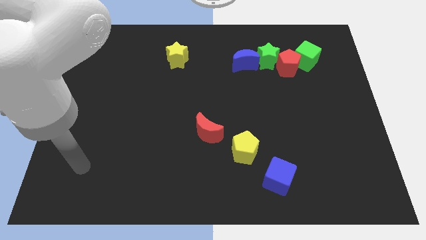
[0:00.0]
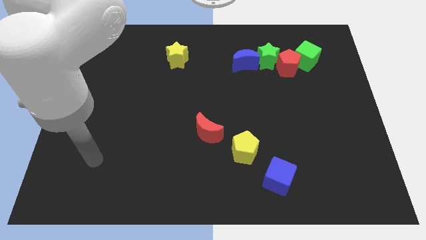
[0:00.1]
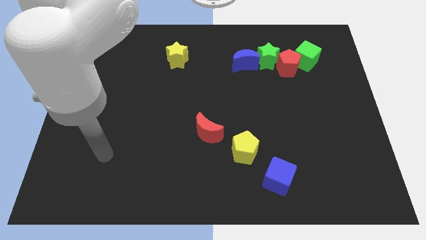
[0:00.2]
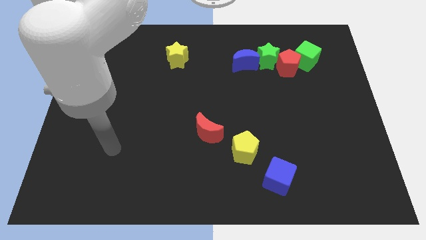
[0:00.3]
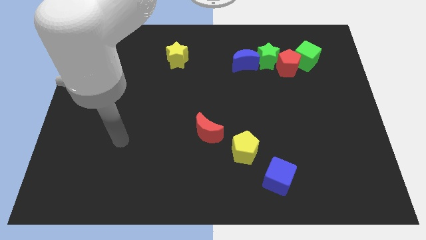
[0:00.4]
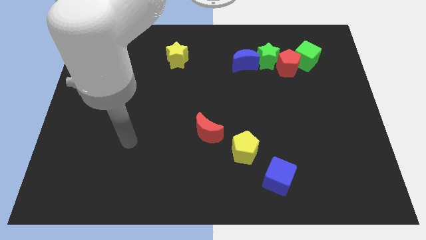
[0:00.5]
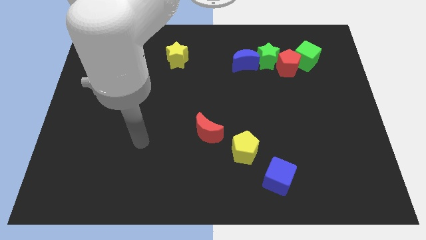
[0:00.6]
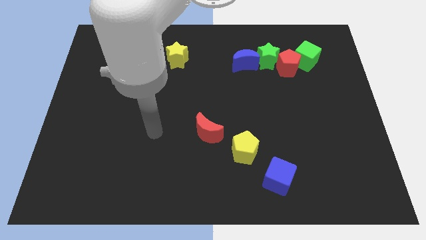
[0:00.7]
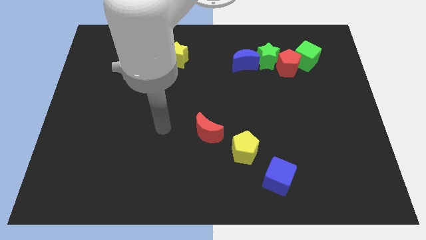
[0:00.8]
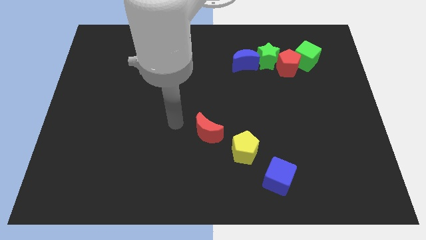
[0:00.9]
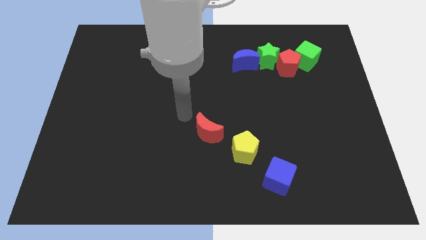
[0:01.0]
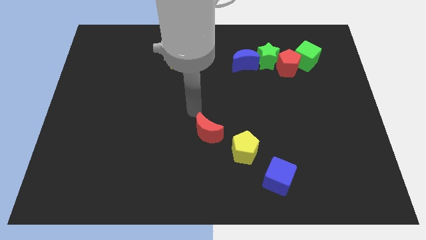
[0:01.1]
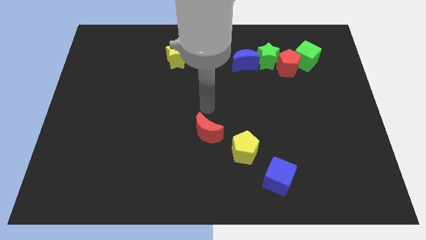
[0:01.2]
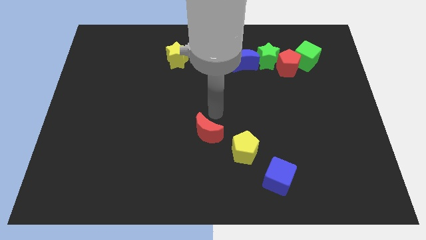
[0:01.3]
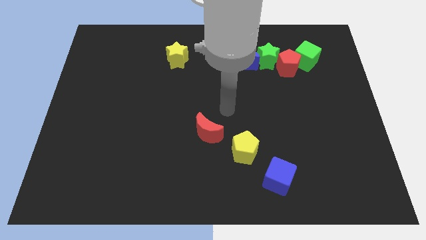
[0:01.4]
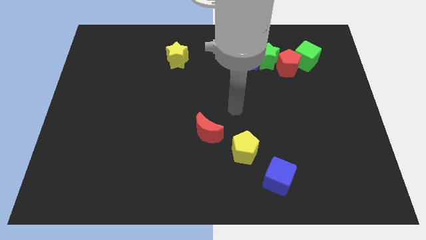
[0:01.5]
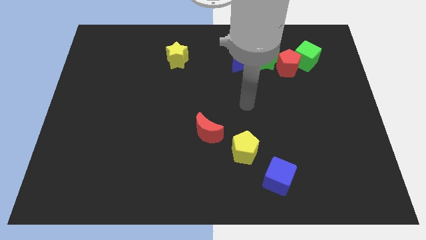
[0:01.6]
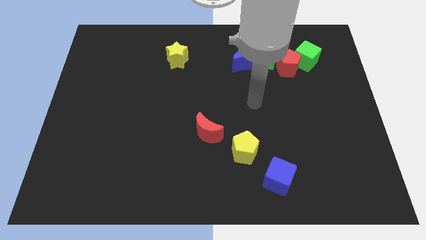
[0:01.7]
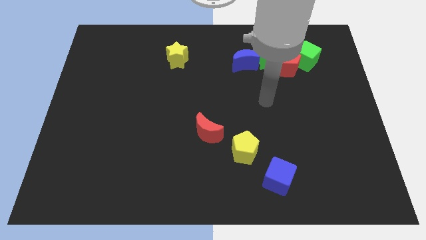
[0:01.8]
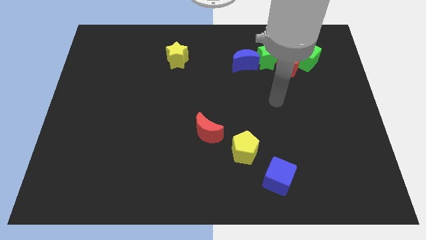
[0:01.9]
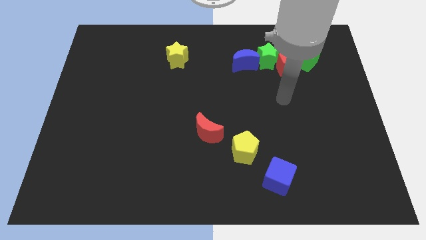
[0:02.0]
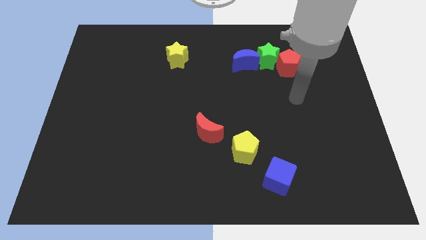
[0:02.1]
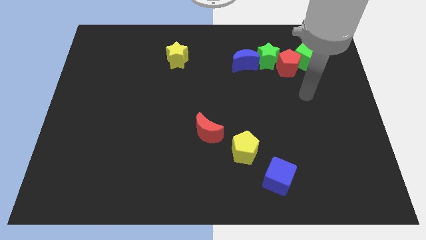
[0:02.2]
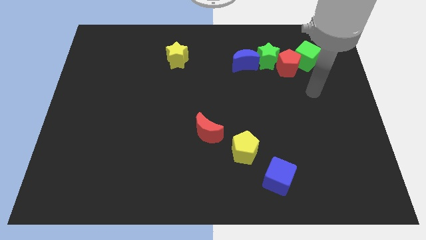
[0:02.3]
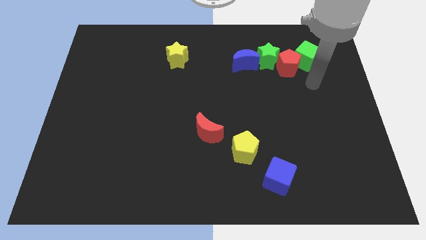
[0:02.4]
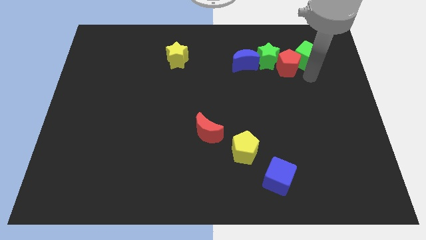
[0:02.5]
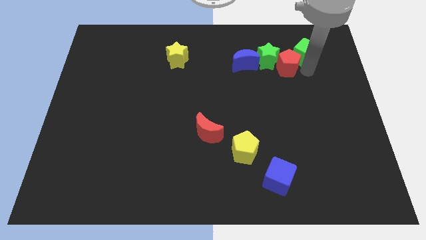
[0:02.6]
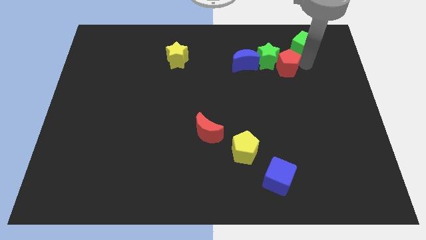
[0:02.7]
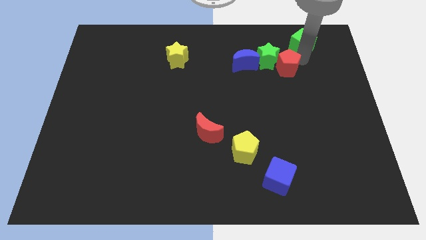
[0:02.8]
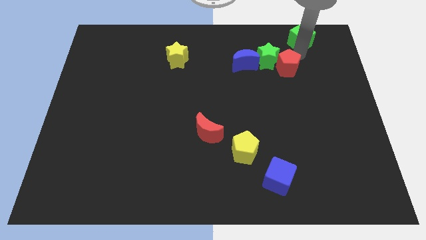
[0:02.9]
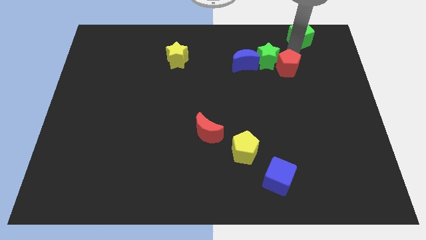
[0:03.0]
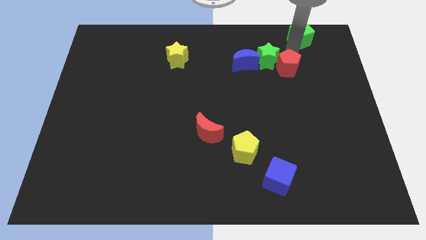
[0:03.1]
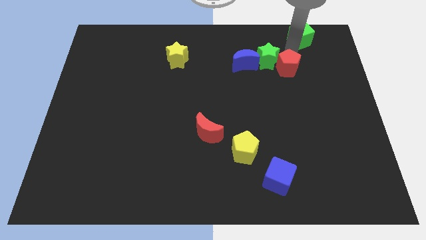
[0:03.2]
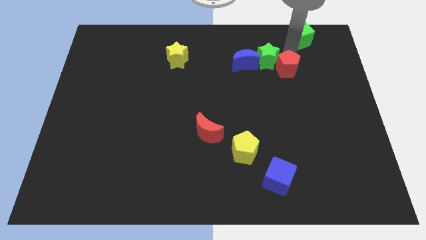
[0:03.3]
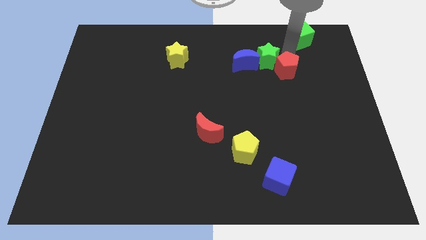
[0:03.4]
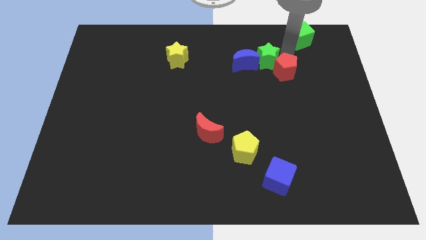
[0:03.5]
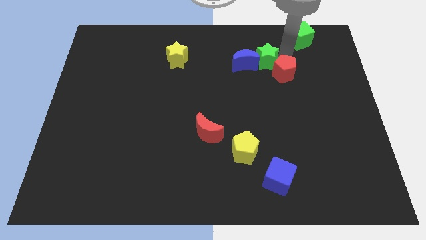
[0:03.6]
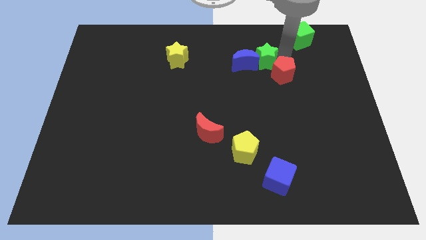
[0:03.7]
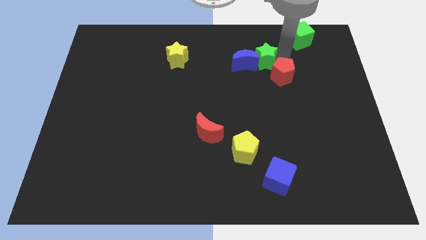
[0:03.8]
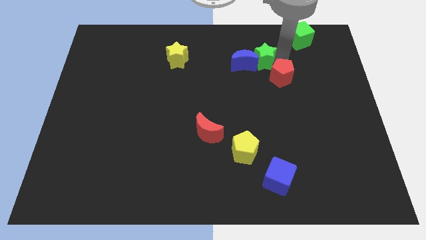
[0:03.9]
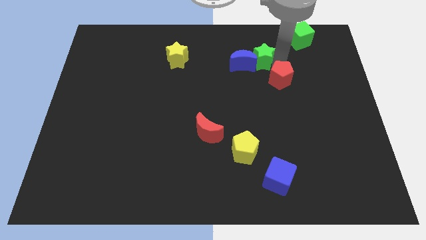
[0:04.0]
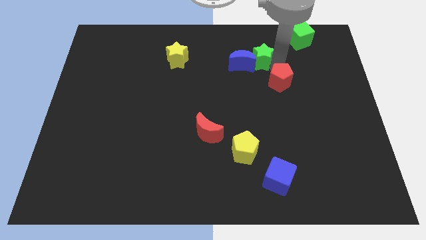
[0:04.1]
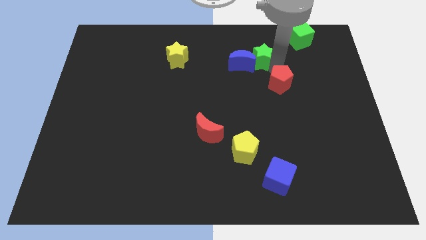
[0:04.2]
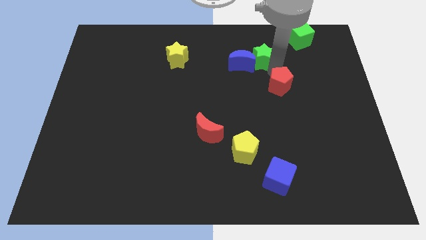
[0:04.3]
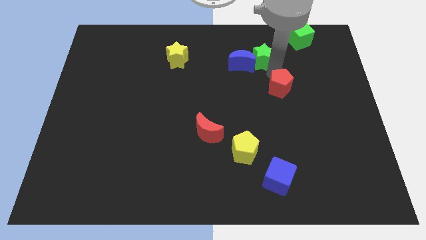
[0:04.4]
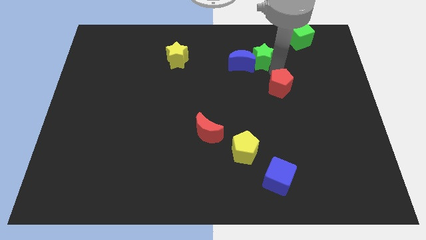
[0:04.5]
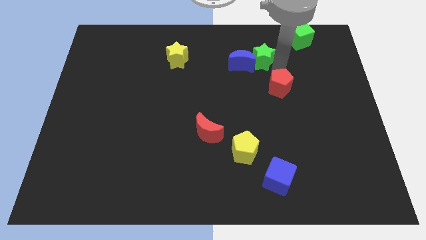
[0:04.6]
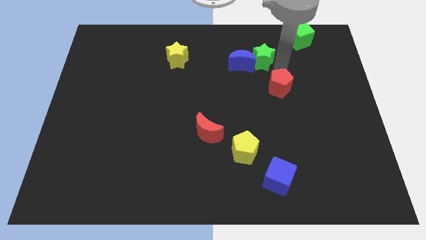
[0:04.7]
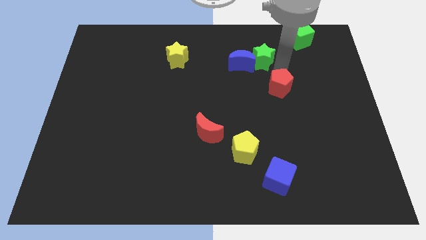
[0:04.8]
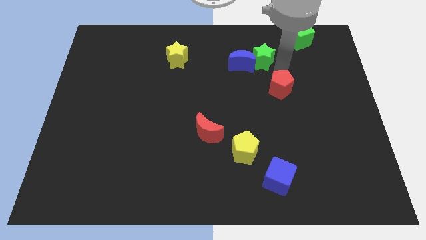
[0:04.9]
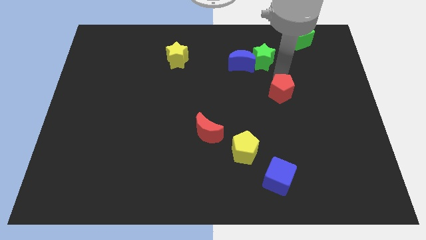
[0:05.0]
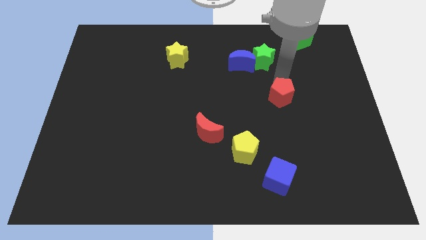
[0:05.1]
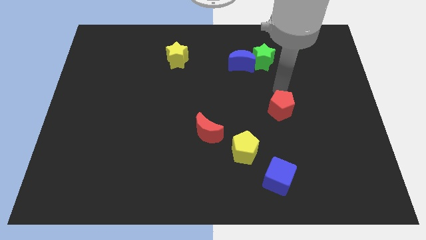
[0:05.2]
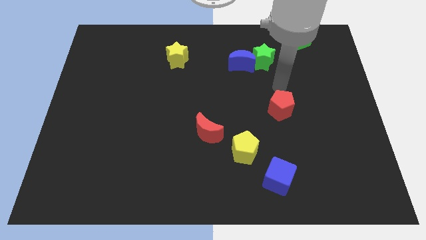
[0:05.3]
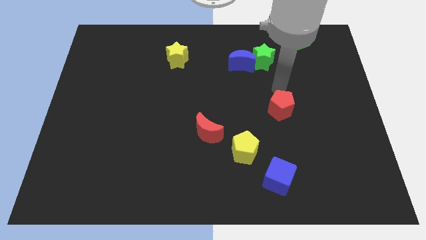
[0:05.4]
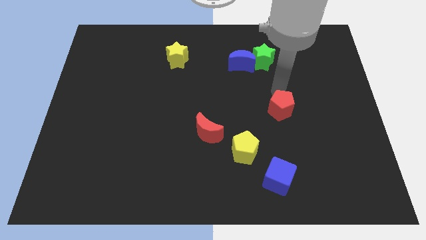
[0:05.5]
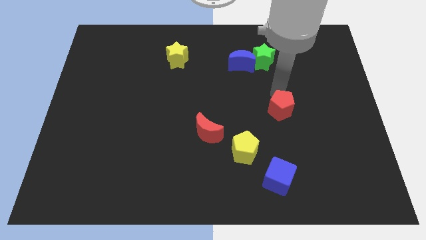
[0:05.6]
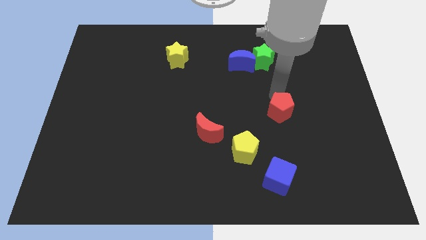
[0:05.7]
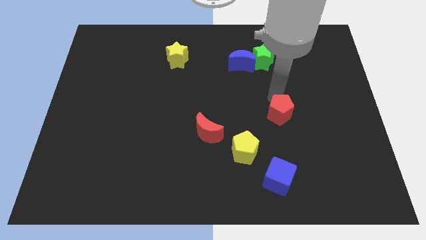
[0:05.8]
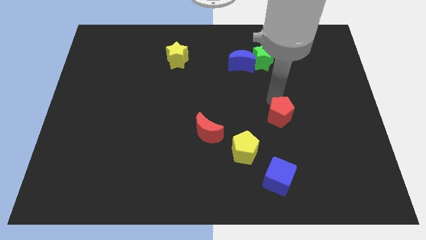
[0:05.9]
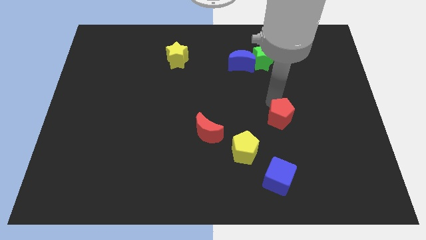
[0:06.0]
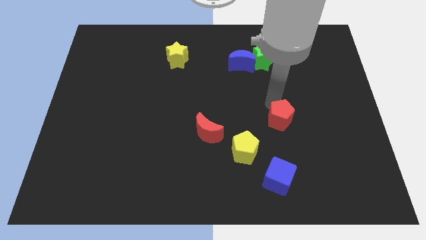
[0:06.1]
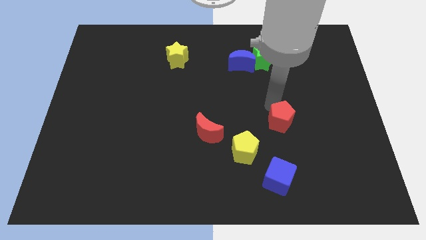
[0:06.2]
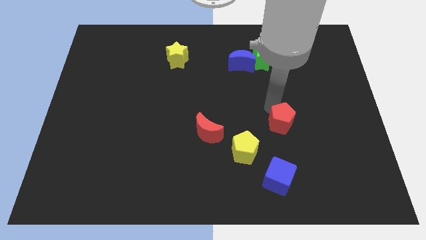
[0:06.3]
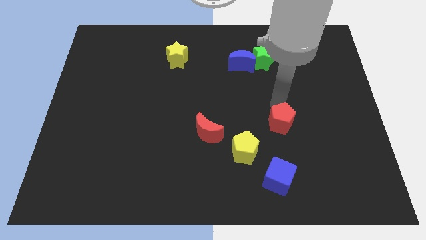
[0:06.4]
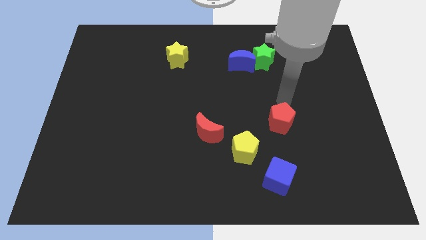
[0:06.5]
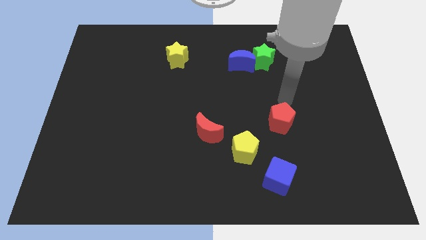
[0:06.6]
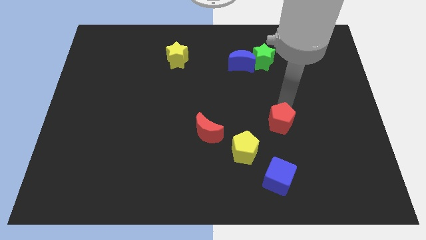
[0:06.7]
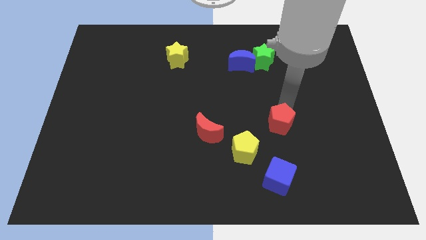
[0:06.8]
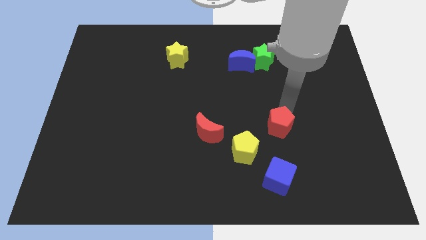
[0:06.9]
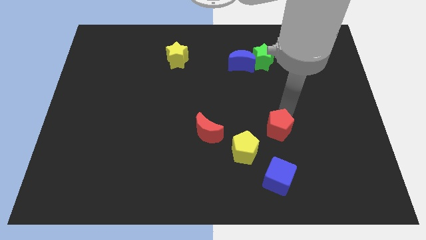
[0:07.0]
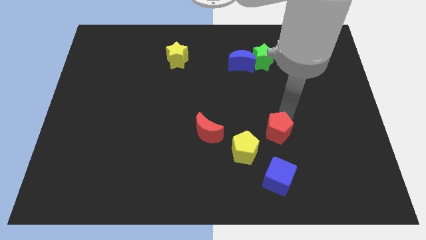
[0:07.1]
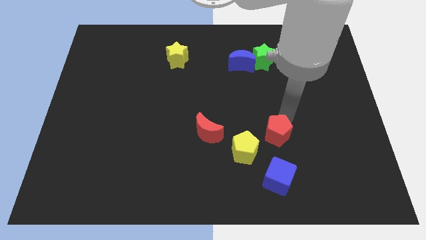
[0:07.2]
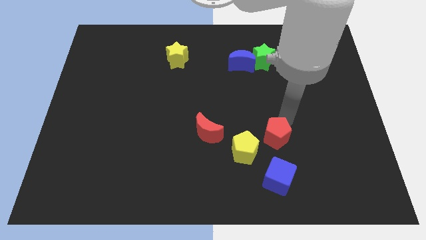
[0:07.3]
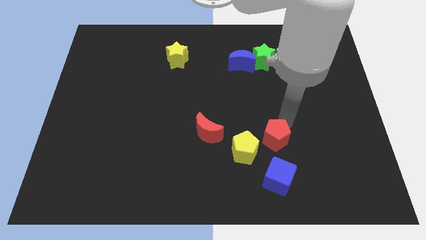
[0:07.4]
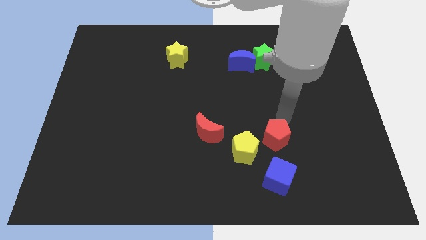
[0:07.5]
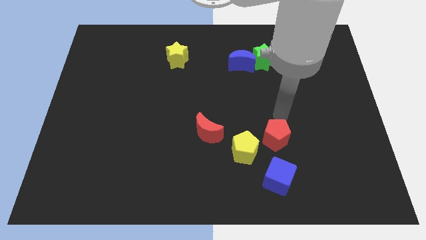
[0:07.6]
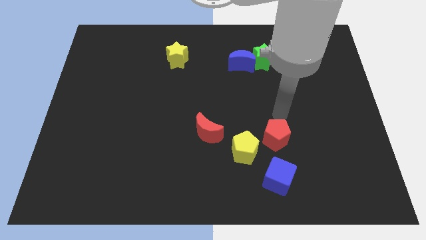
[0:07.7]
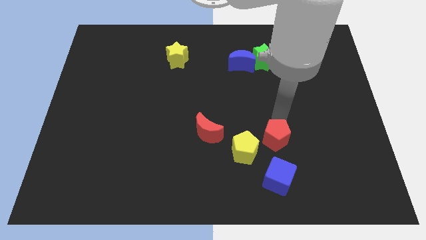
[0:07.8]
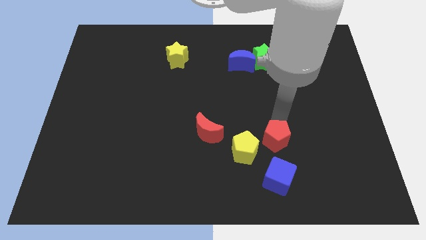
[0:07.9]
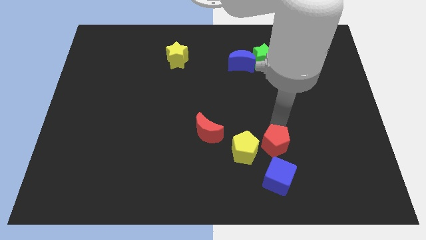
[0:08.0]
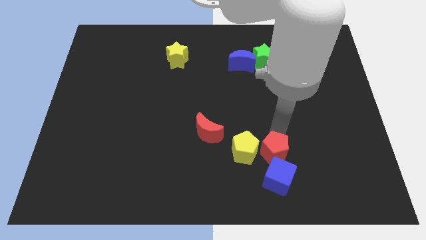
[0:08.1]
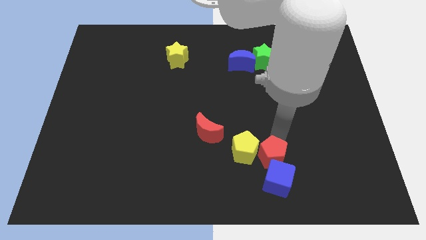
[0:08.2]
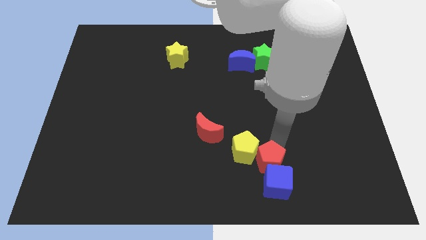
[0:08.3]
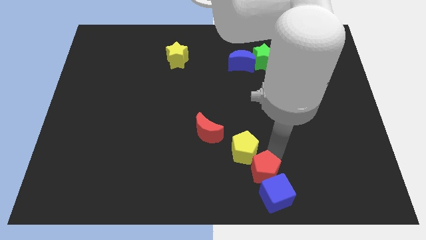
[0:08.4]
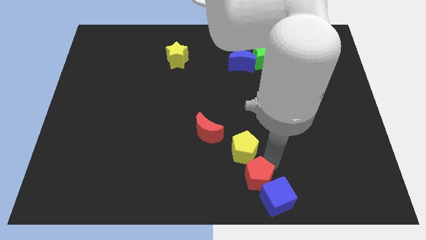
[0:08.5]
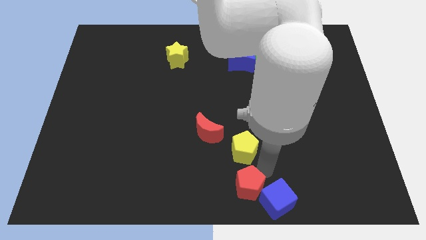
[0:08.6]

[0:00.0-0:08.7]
push the red pentagon just left of the blue cube
